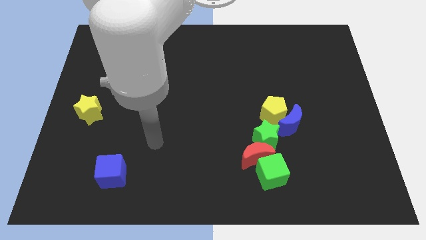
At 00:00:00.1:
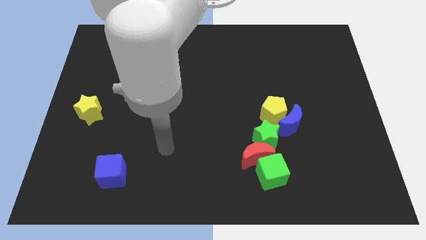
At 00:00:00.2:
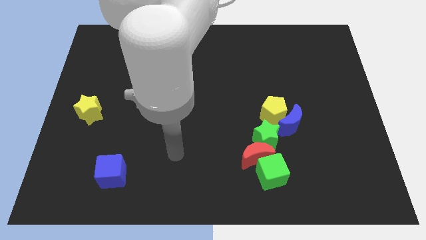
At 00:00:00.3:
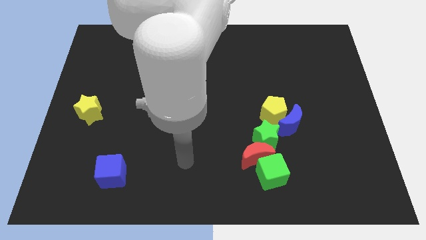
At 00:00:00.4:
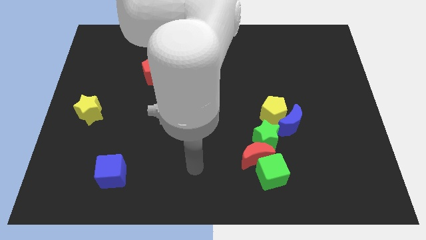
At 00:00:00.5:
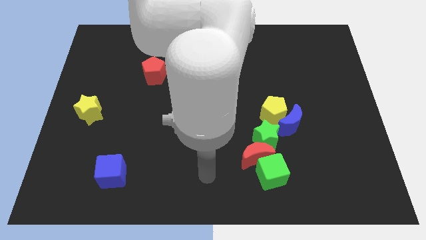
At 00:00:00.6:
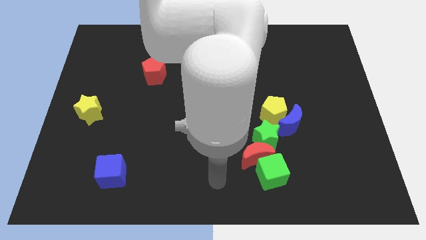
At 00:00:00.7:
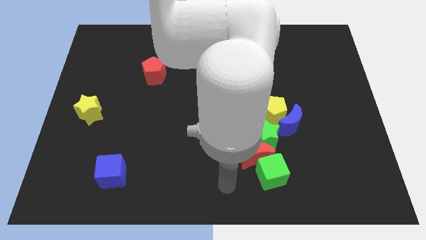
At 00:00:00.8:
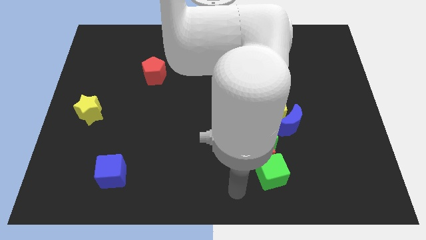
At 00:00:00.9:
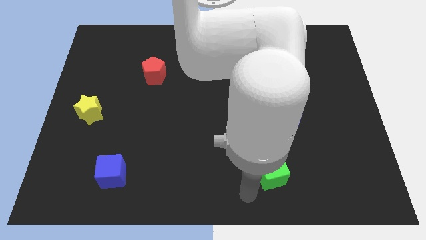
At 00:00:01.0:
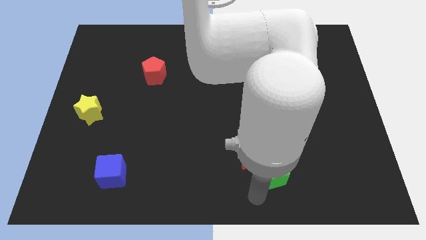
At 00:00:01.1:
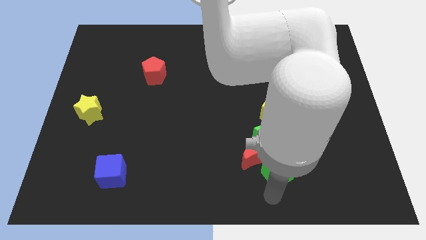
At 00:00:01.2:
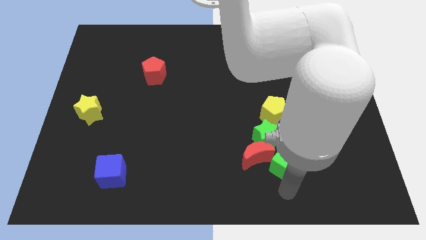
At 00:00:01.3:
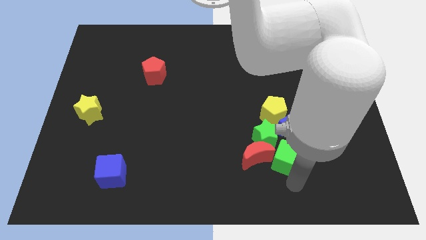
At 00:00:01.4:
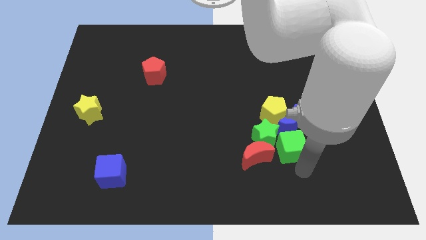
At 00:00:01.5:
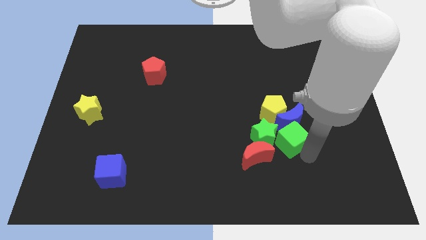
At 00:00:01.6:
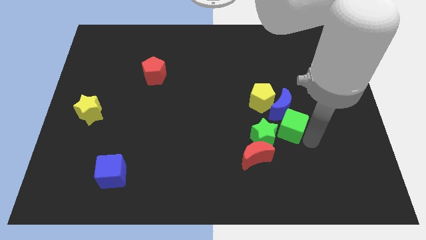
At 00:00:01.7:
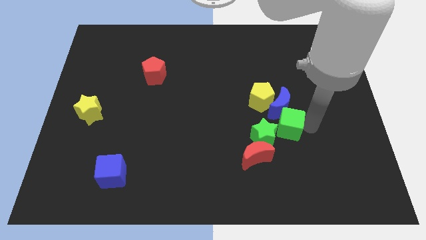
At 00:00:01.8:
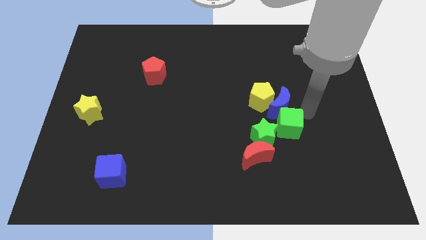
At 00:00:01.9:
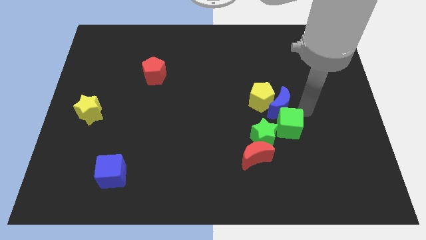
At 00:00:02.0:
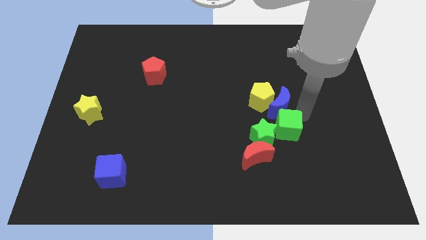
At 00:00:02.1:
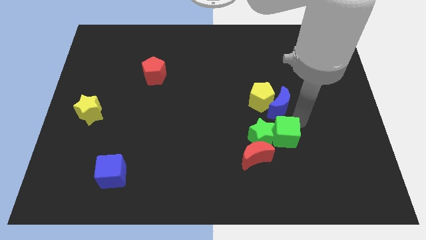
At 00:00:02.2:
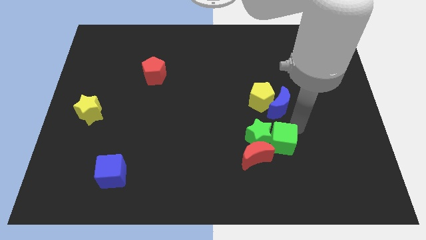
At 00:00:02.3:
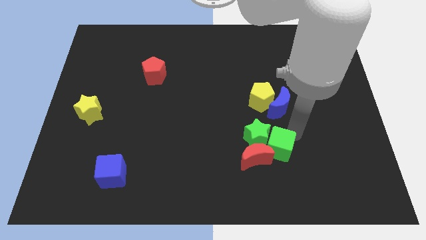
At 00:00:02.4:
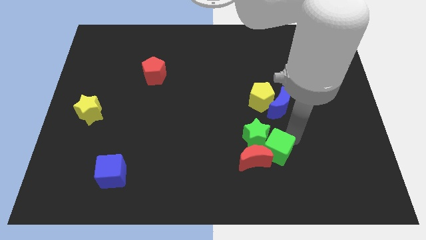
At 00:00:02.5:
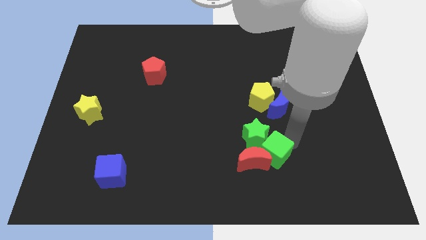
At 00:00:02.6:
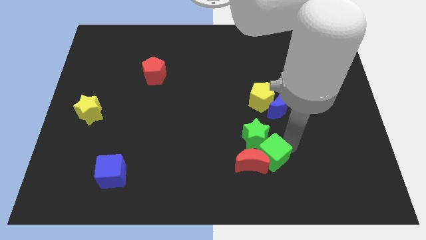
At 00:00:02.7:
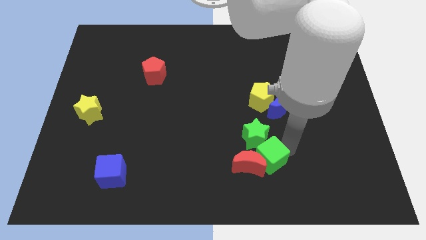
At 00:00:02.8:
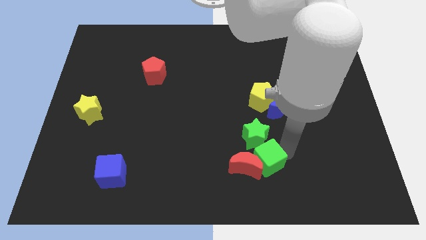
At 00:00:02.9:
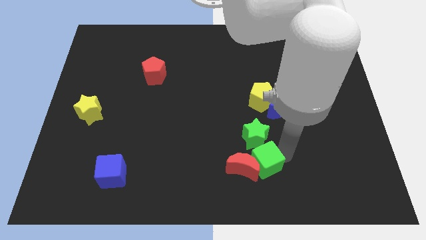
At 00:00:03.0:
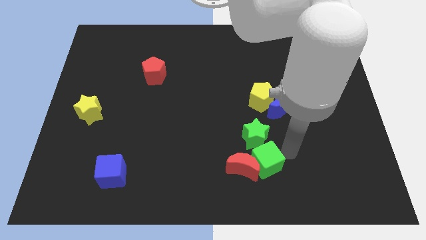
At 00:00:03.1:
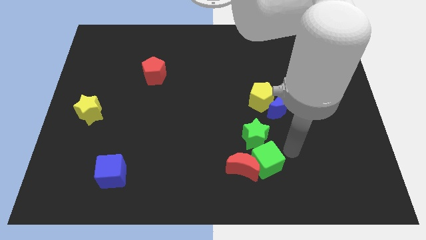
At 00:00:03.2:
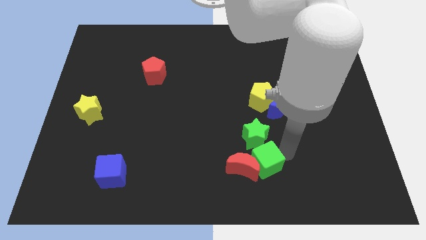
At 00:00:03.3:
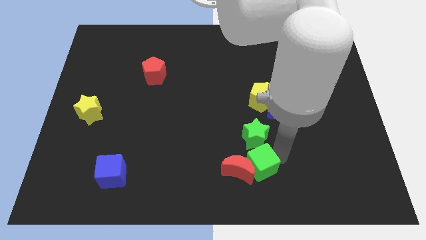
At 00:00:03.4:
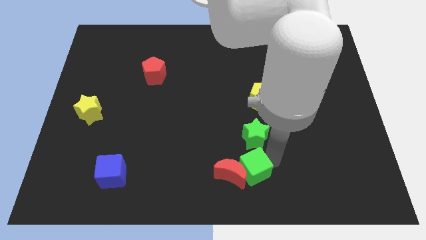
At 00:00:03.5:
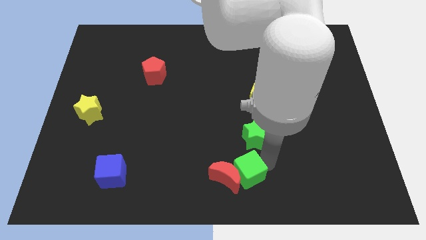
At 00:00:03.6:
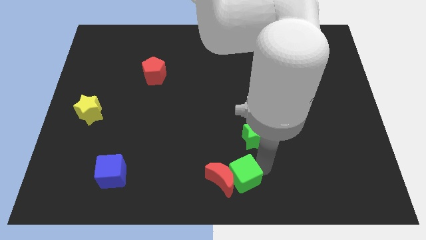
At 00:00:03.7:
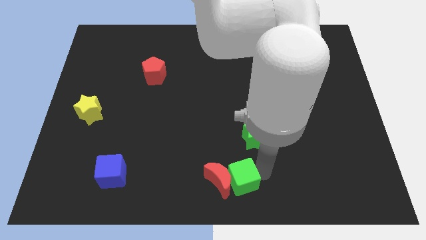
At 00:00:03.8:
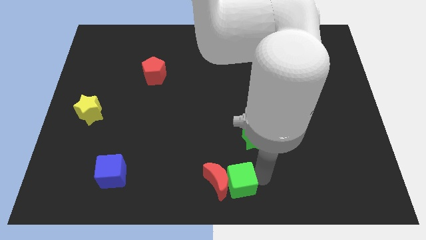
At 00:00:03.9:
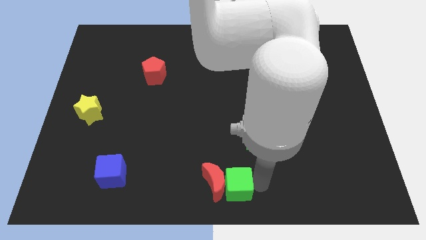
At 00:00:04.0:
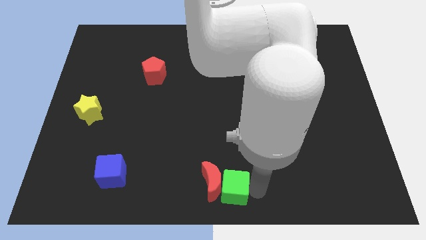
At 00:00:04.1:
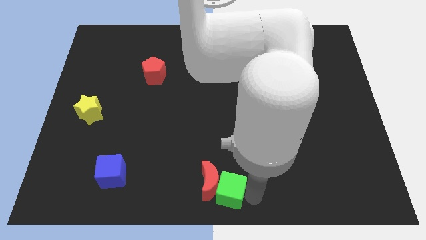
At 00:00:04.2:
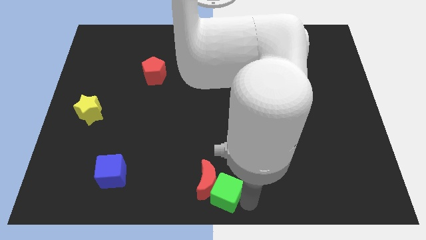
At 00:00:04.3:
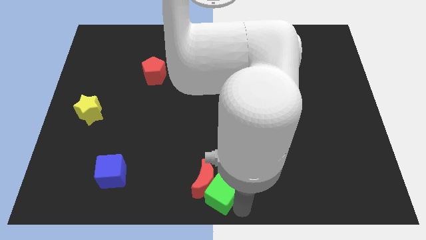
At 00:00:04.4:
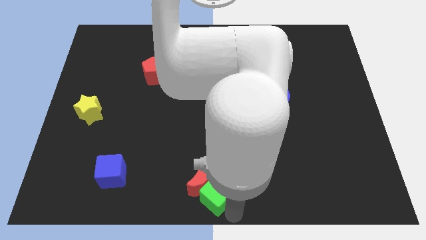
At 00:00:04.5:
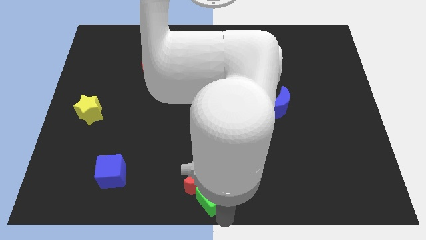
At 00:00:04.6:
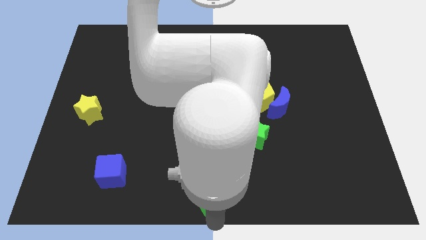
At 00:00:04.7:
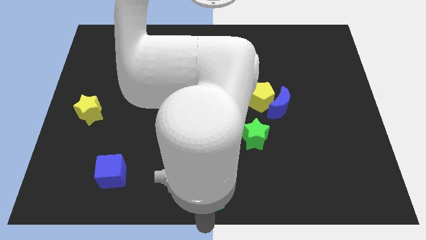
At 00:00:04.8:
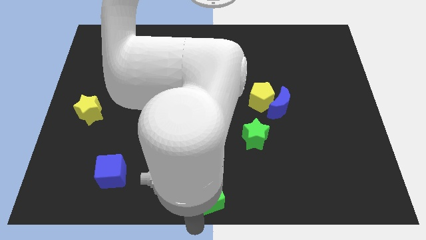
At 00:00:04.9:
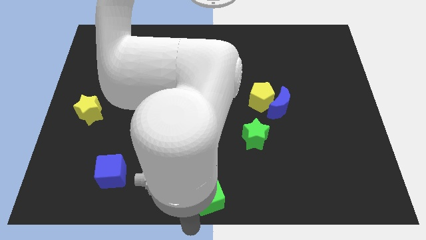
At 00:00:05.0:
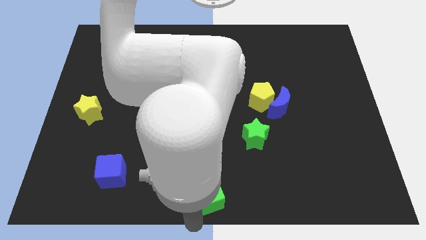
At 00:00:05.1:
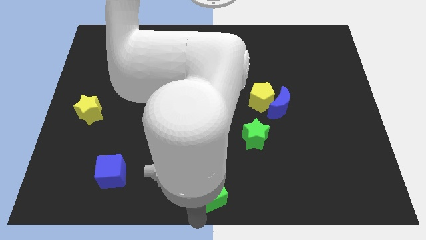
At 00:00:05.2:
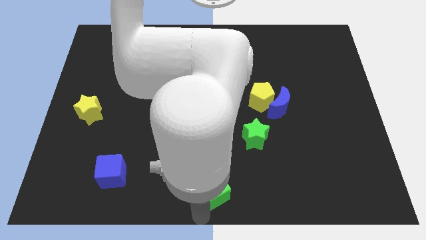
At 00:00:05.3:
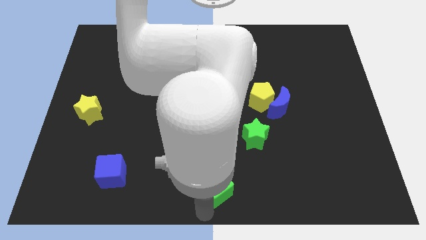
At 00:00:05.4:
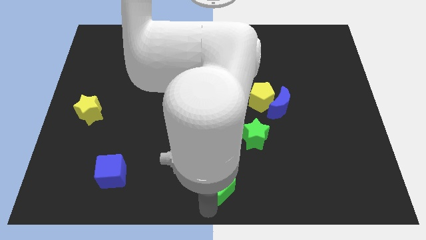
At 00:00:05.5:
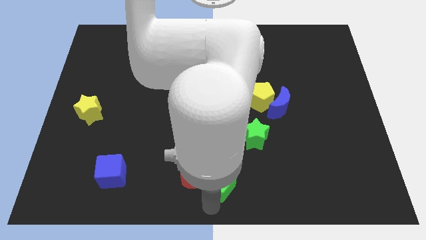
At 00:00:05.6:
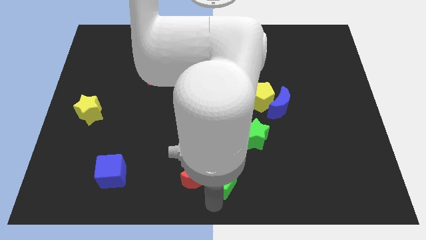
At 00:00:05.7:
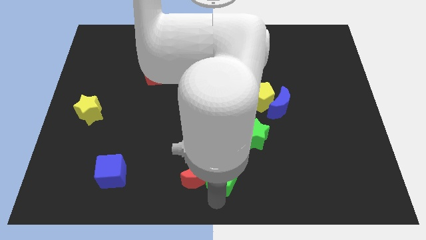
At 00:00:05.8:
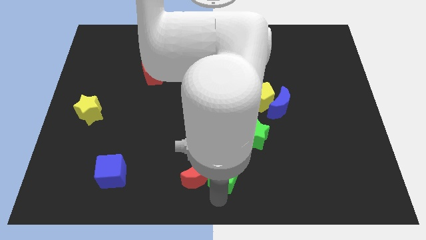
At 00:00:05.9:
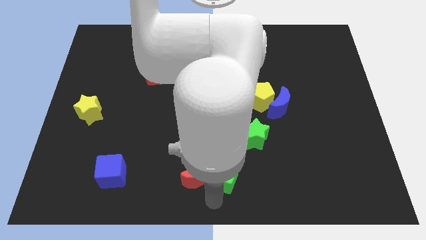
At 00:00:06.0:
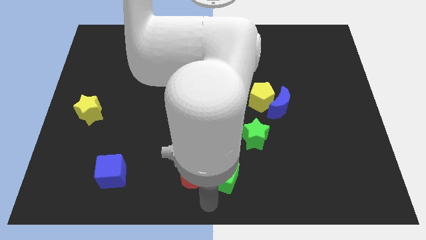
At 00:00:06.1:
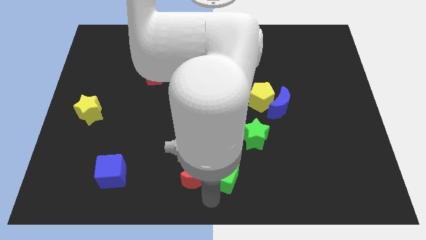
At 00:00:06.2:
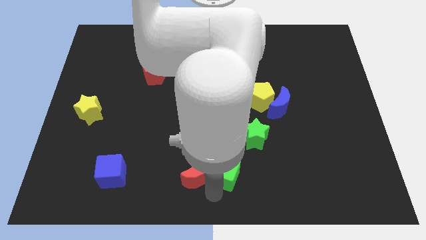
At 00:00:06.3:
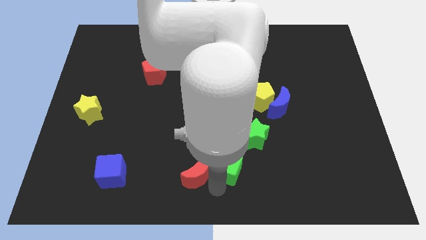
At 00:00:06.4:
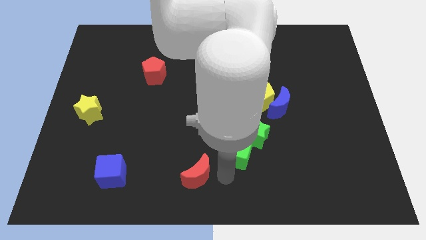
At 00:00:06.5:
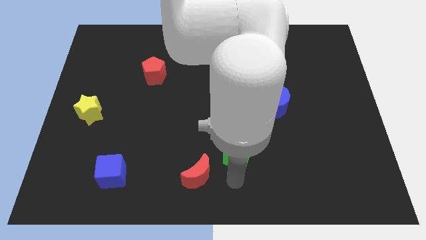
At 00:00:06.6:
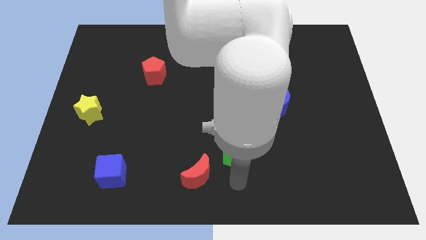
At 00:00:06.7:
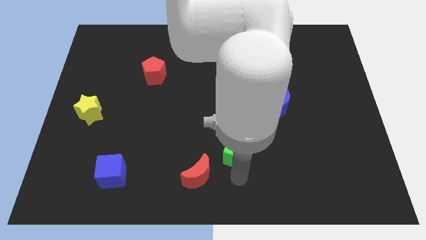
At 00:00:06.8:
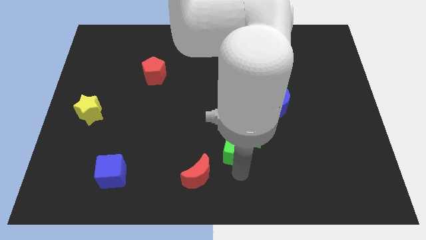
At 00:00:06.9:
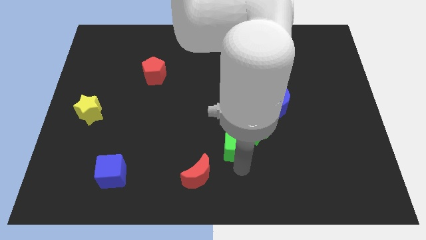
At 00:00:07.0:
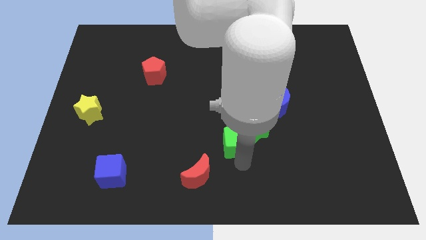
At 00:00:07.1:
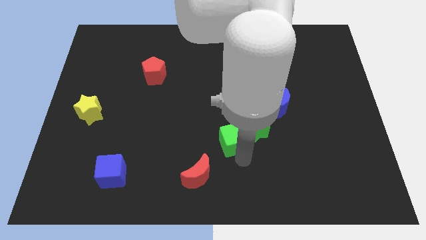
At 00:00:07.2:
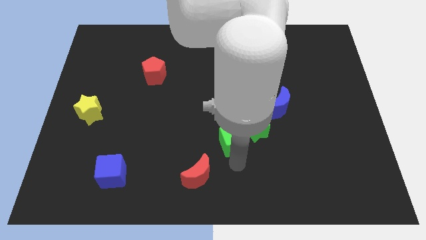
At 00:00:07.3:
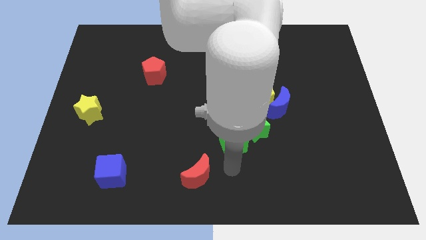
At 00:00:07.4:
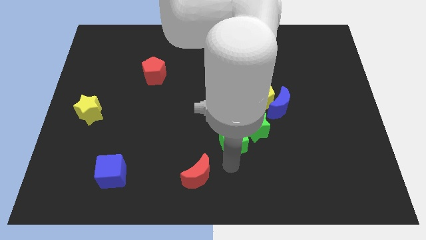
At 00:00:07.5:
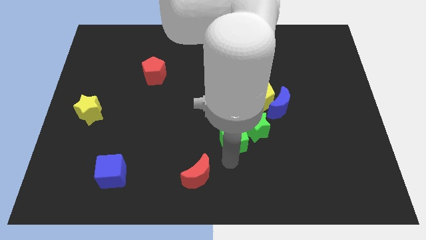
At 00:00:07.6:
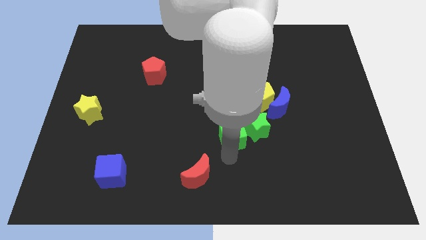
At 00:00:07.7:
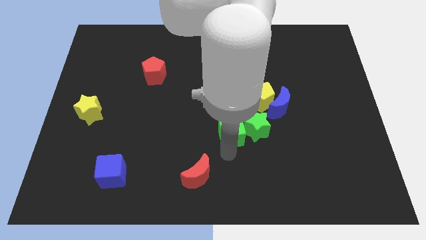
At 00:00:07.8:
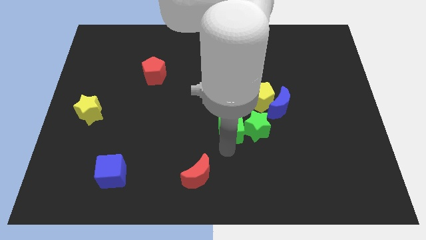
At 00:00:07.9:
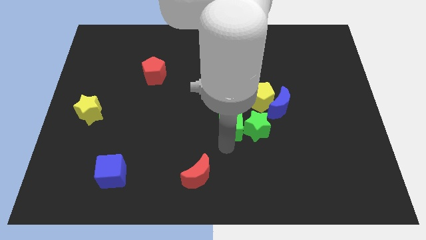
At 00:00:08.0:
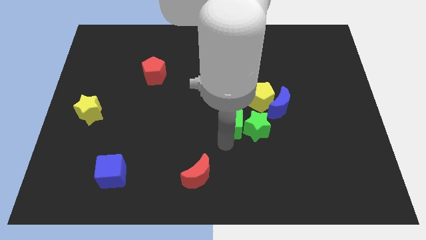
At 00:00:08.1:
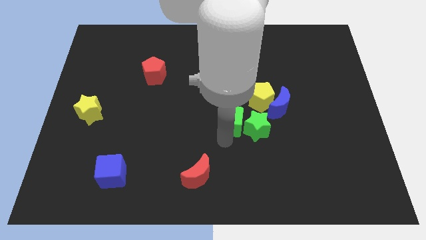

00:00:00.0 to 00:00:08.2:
put the green cube to the left side of the blue moon
